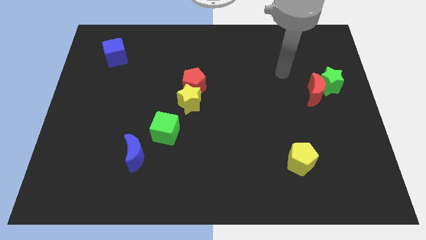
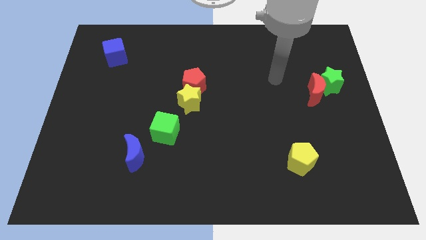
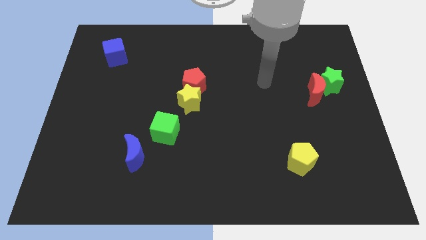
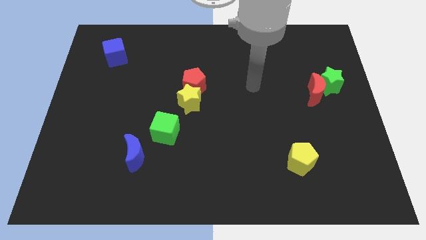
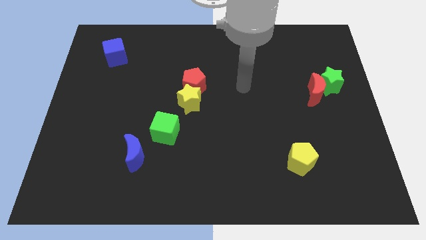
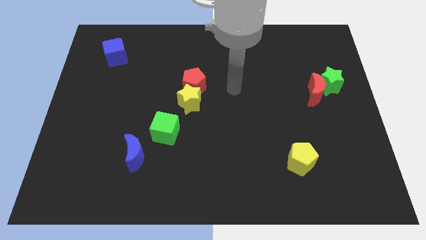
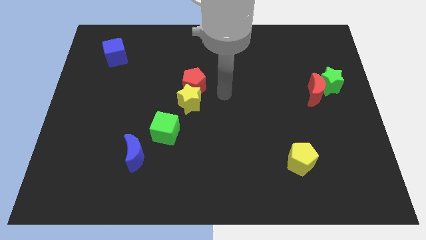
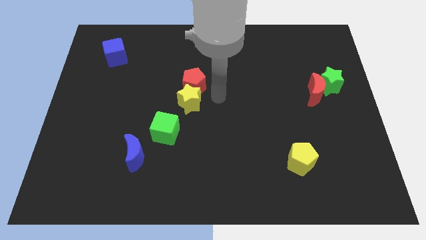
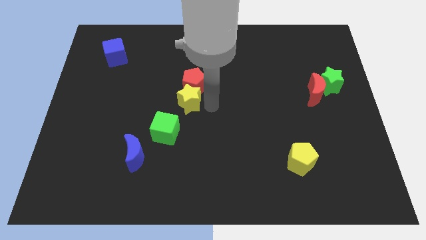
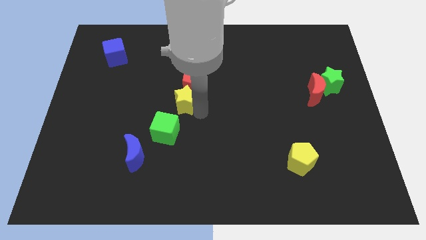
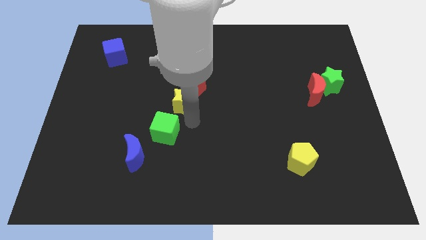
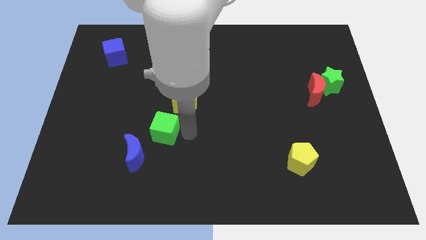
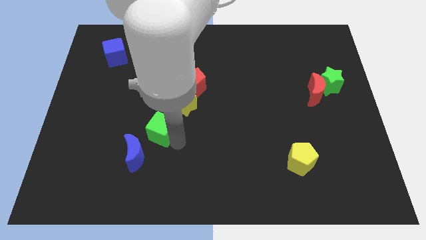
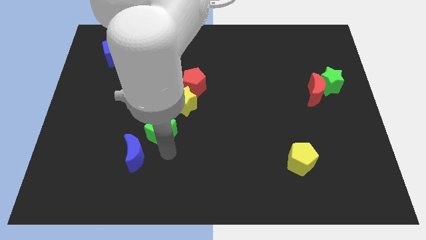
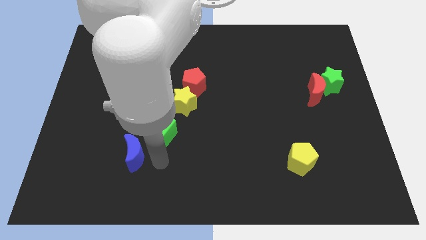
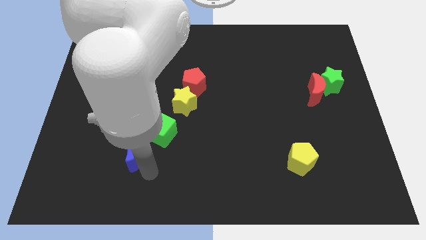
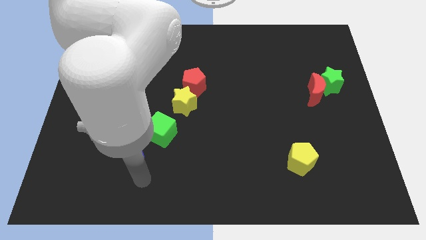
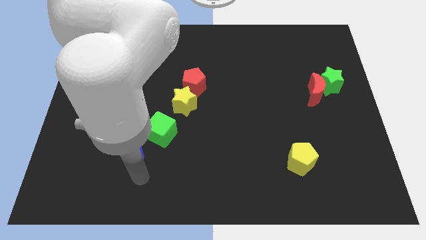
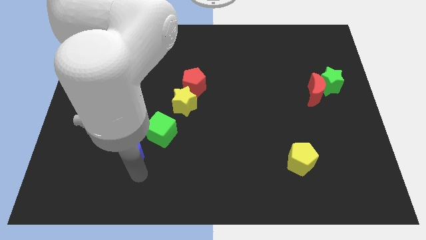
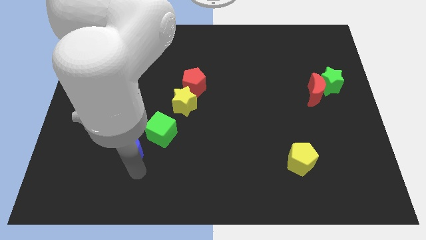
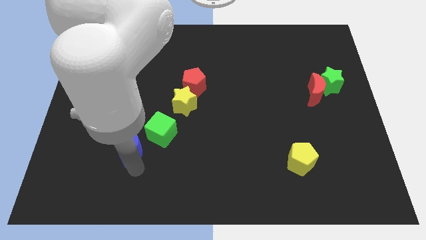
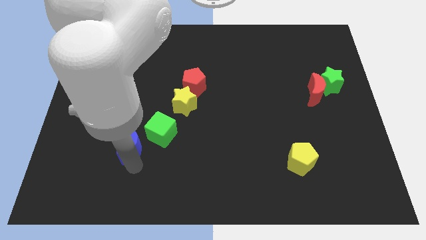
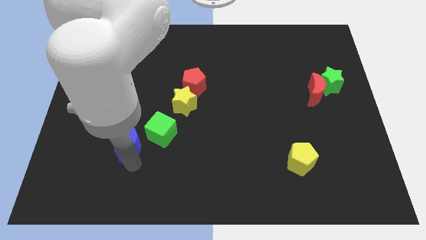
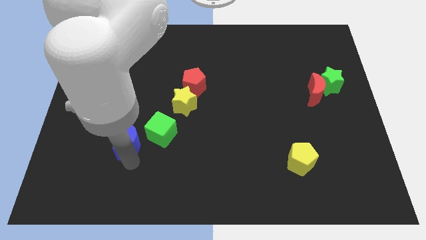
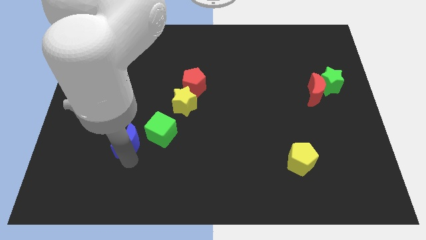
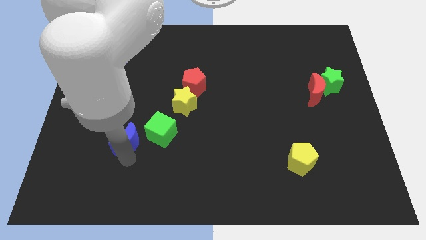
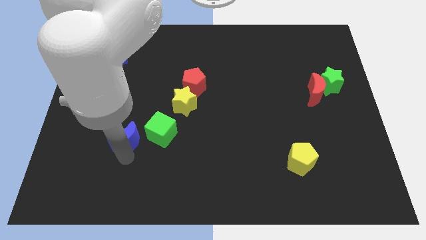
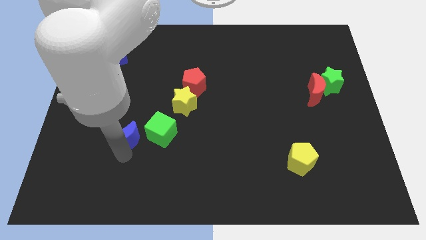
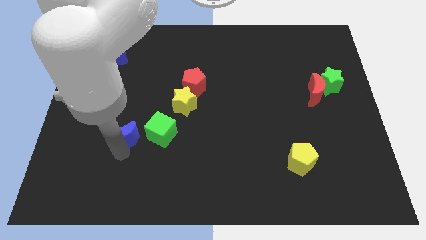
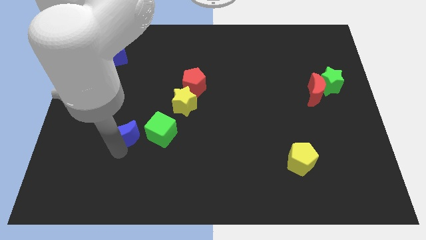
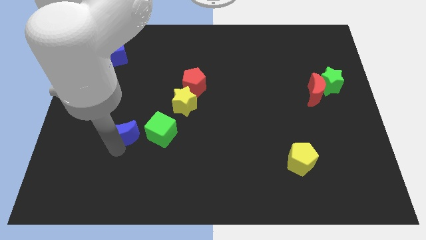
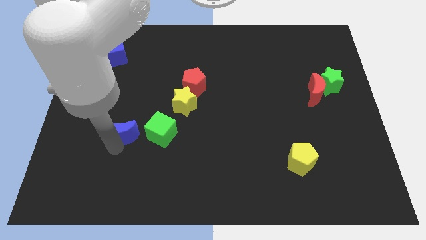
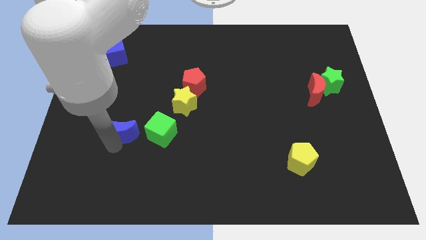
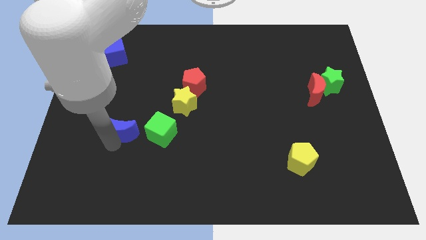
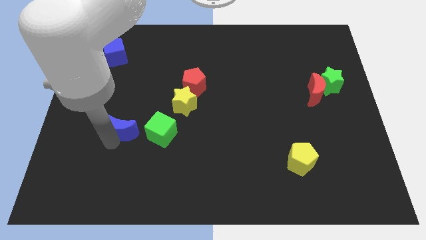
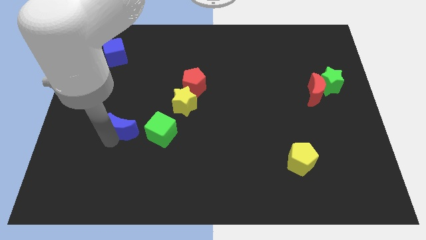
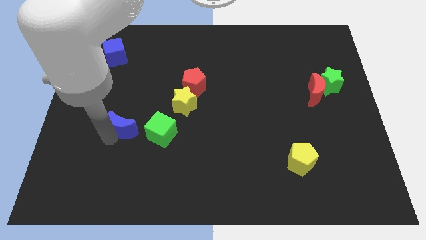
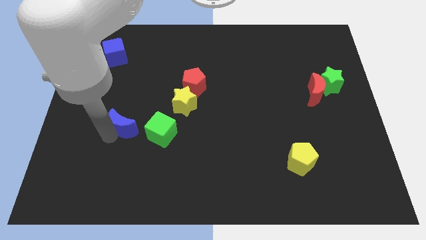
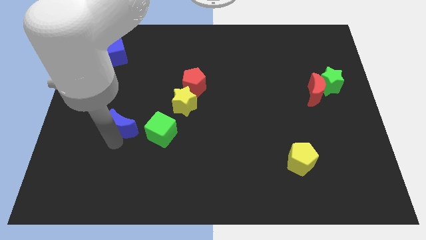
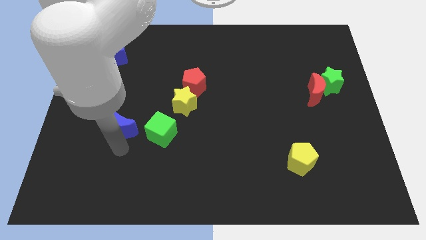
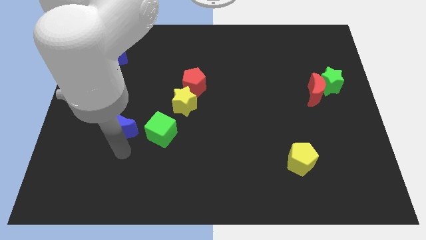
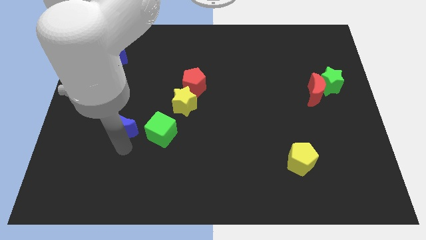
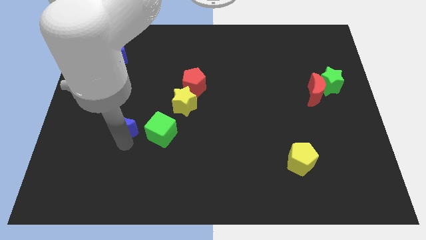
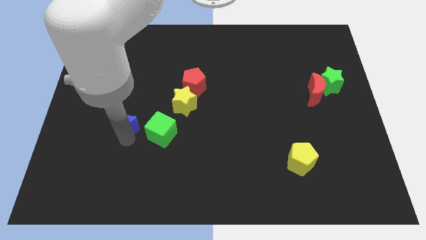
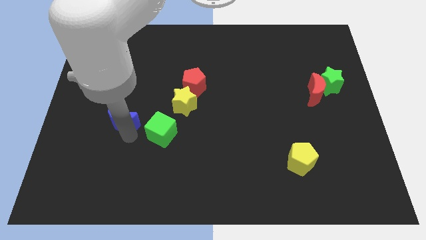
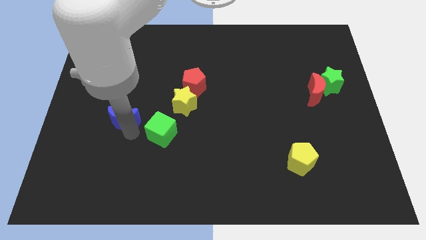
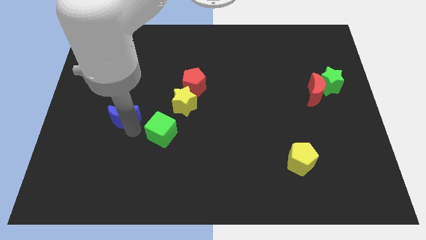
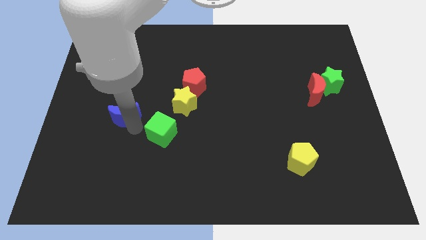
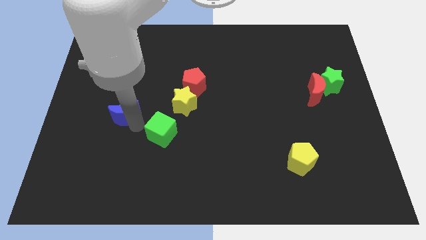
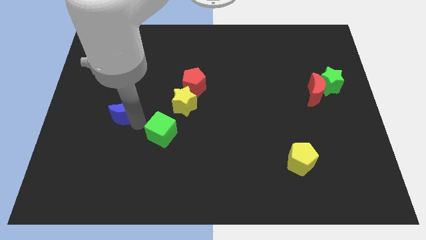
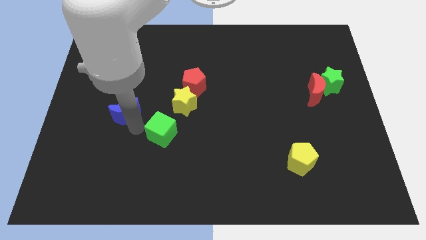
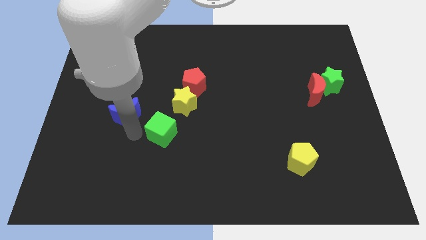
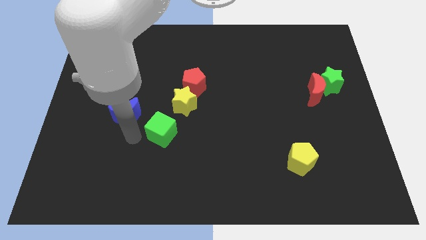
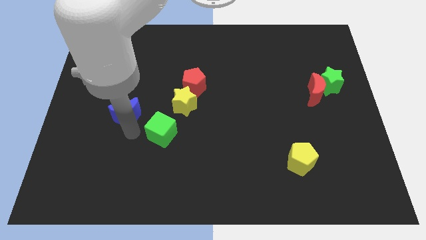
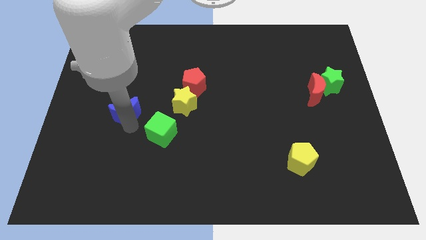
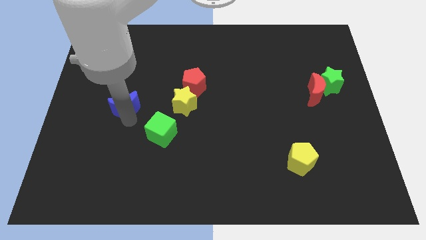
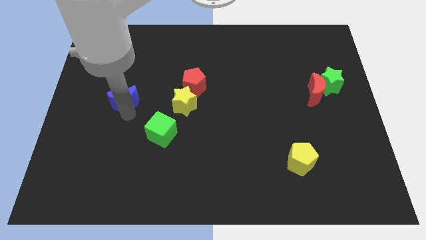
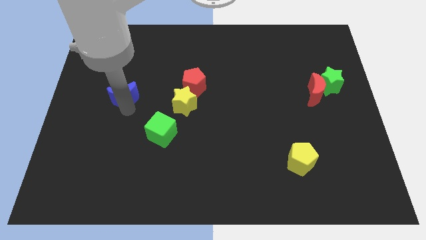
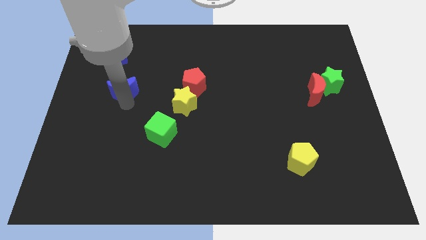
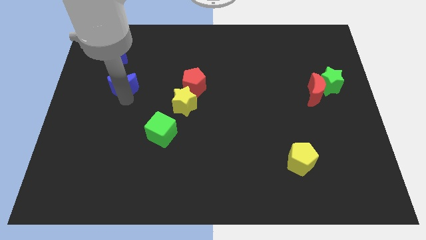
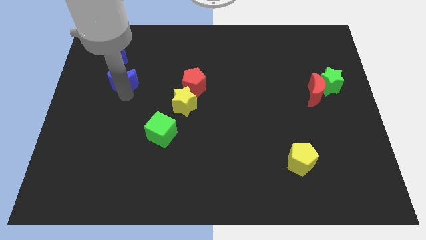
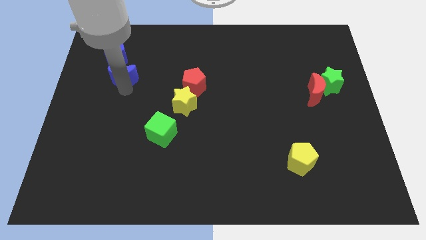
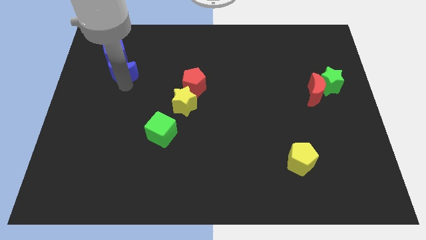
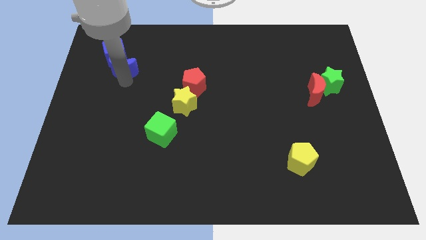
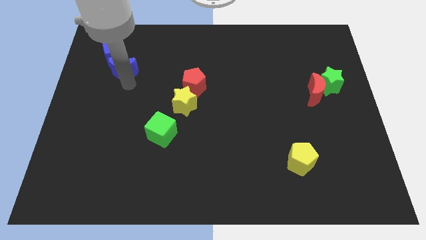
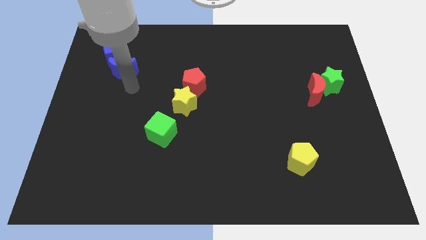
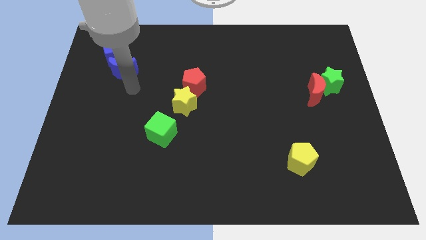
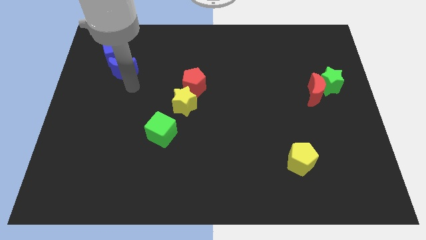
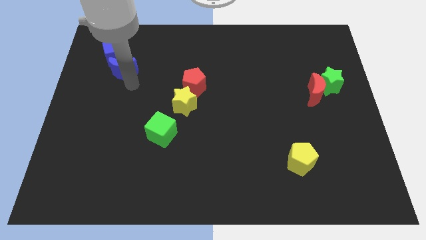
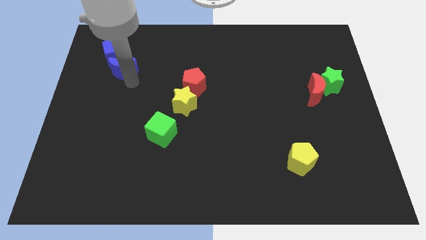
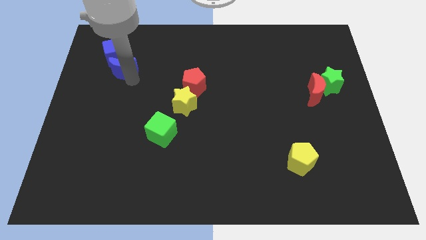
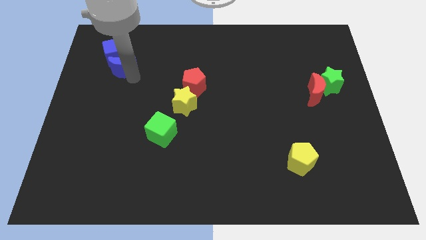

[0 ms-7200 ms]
put the blue moon next to the blue cube

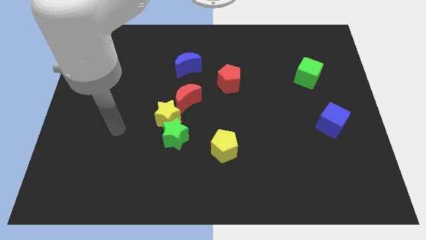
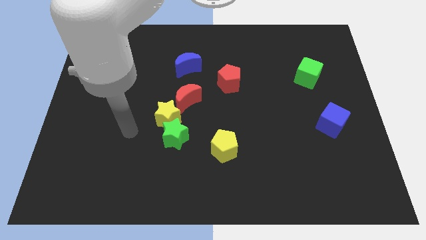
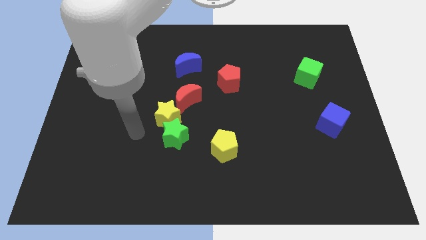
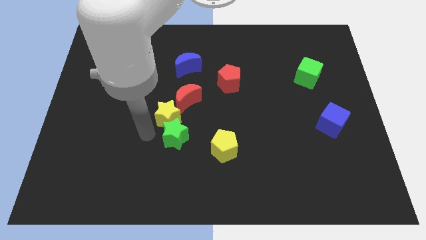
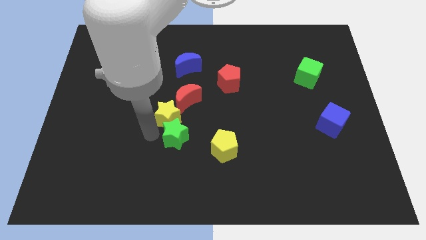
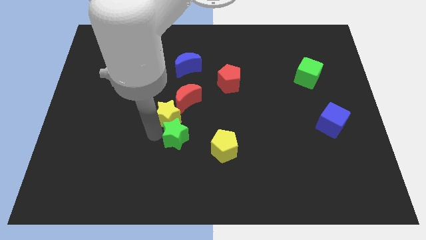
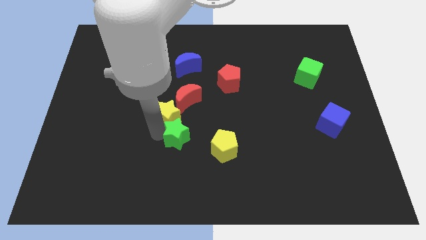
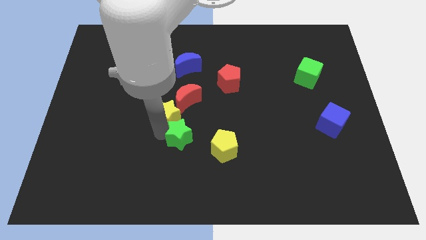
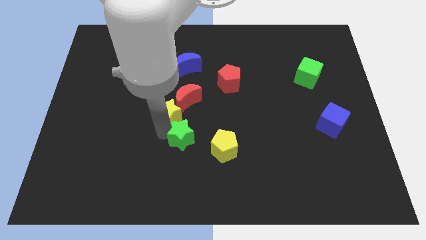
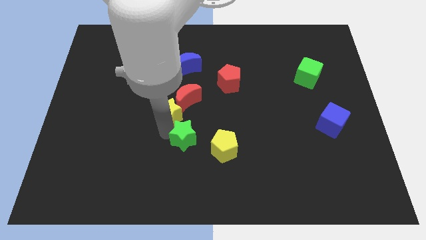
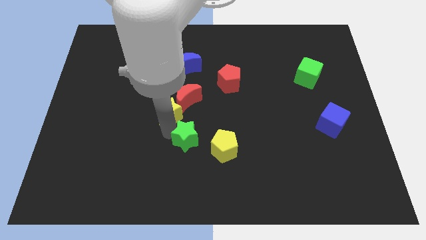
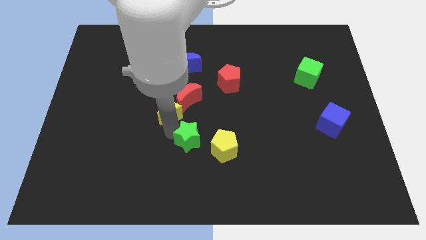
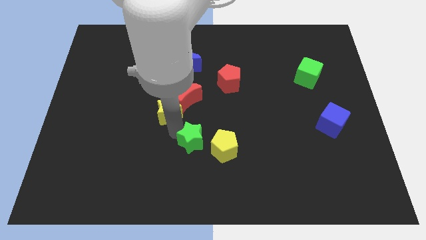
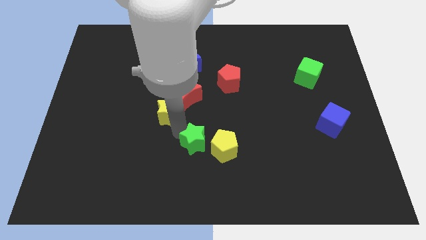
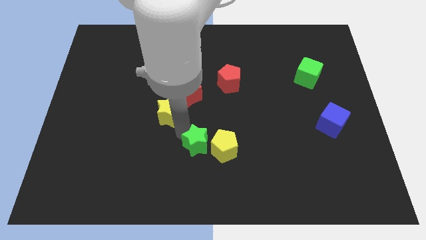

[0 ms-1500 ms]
slide the green star next to the yellow pentagon
